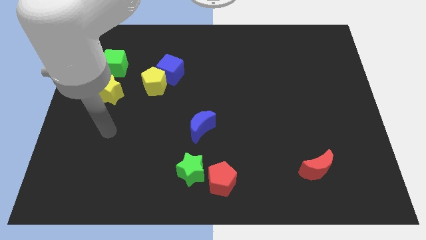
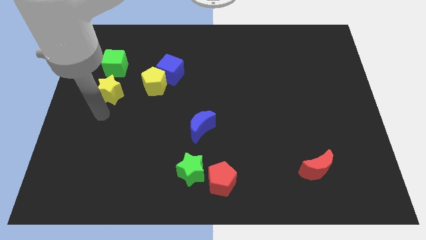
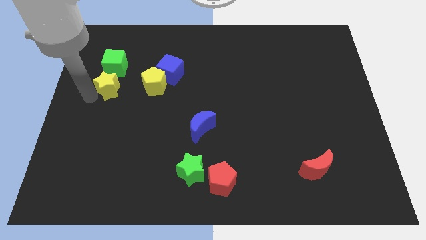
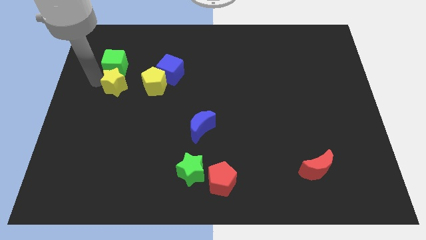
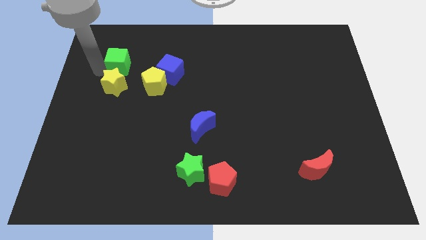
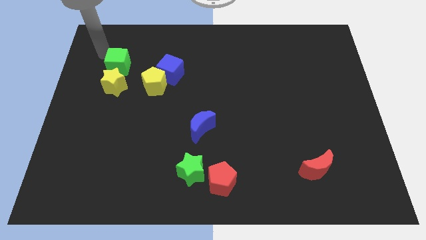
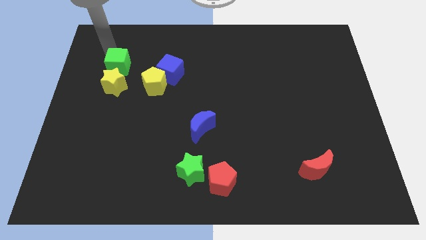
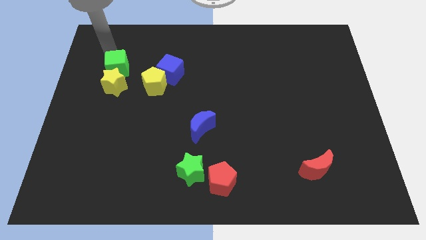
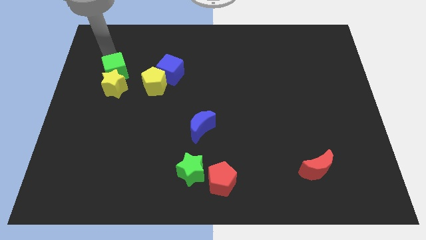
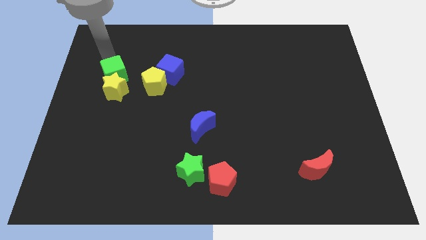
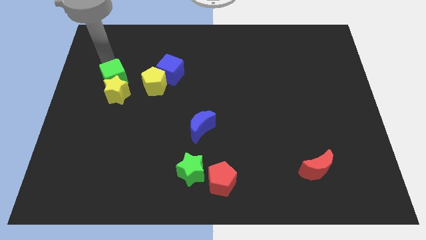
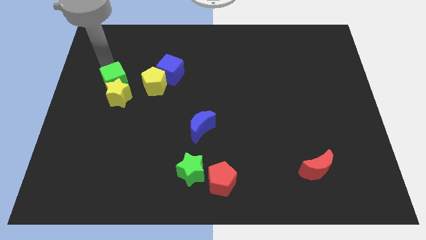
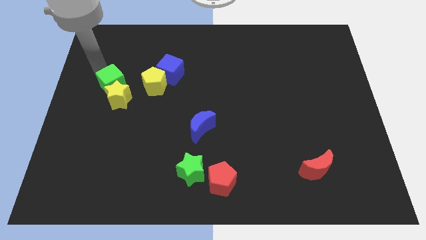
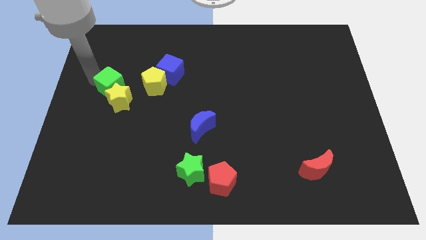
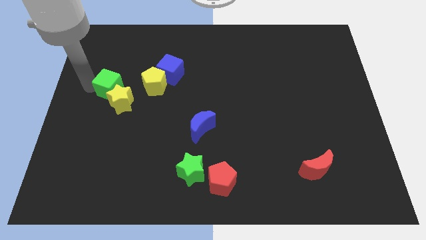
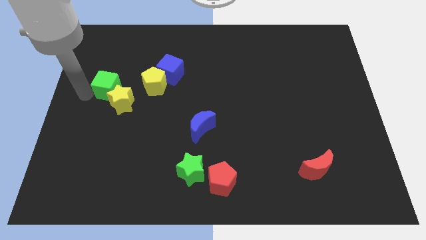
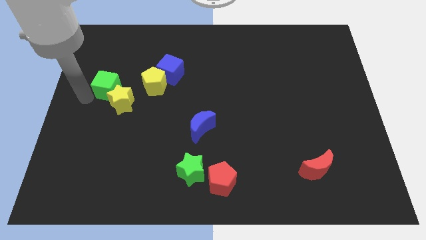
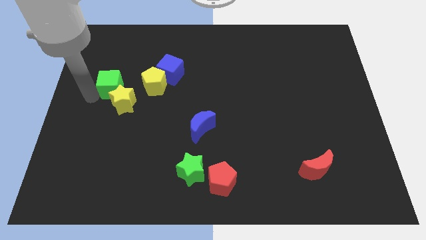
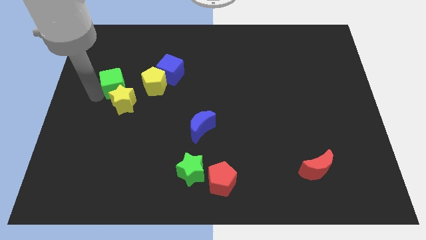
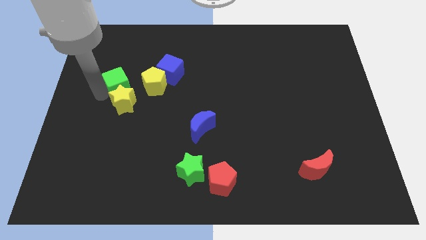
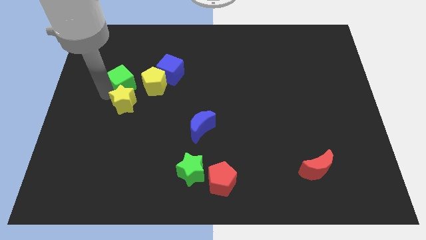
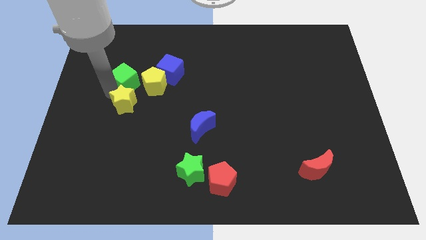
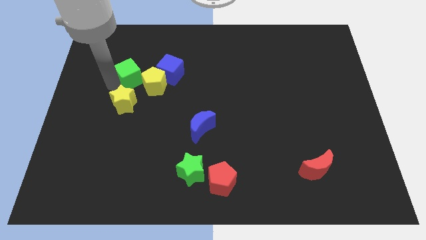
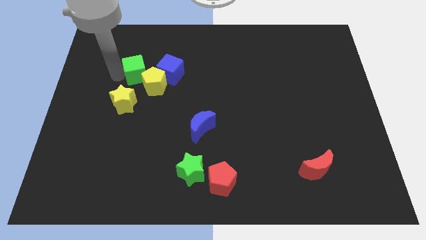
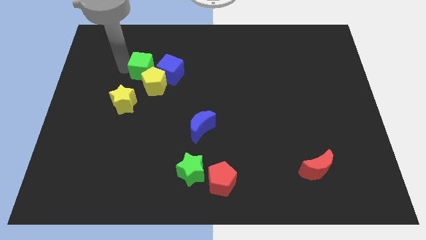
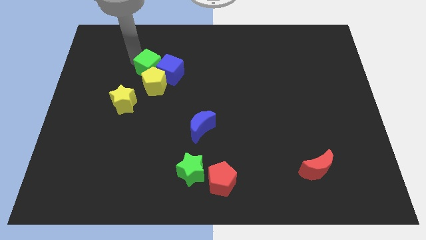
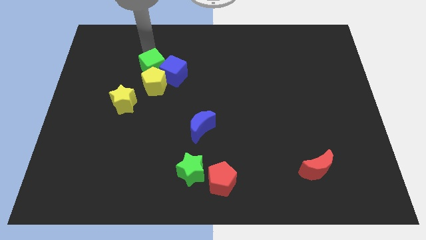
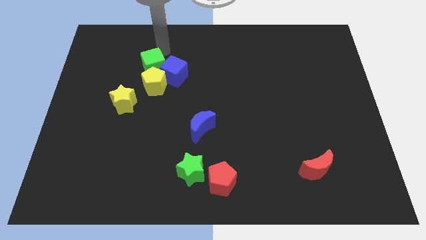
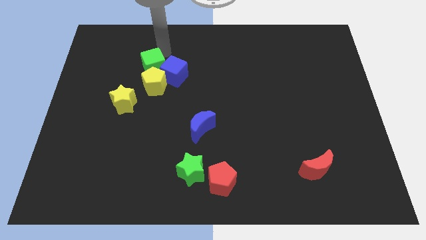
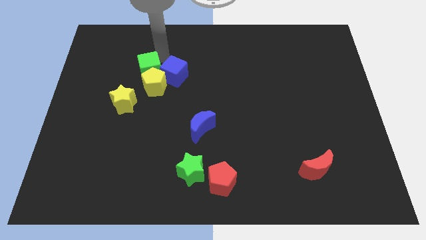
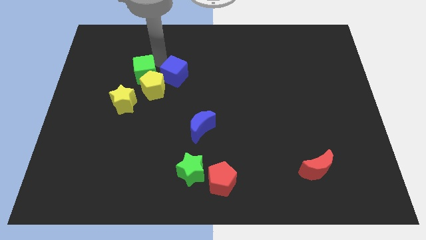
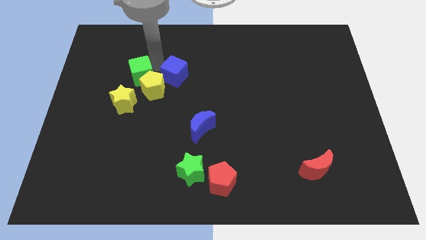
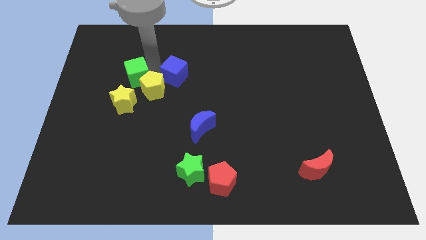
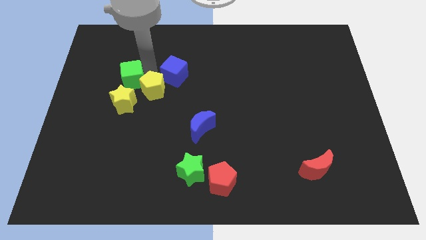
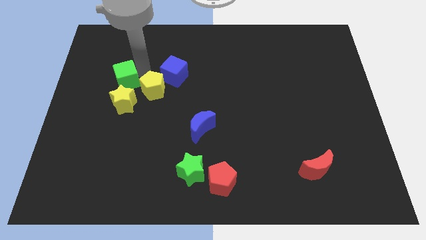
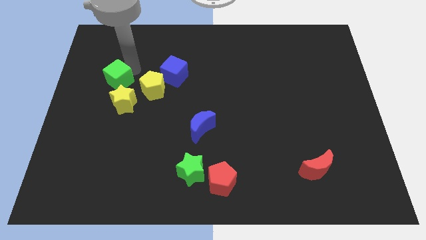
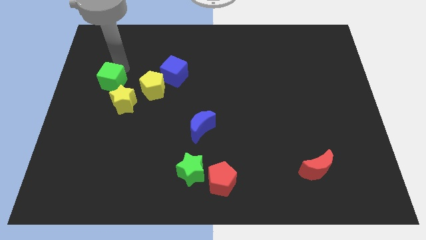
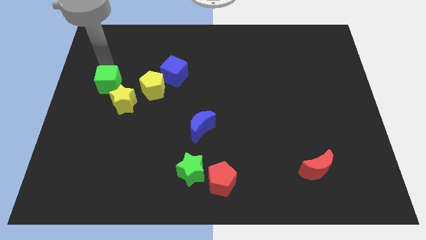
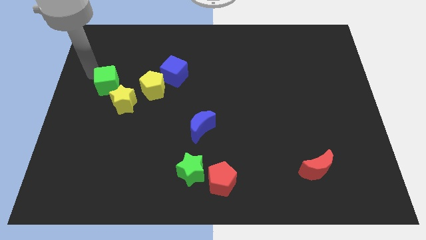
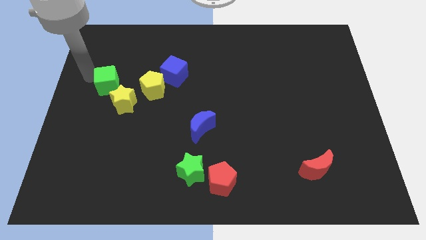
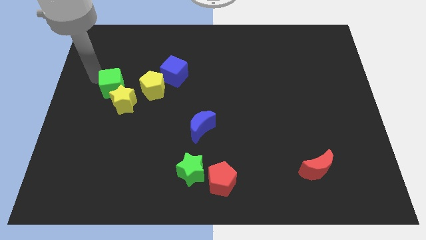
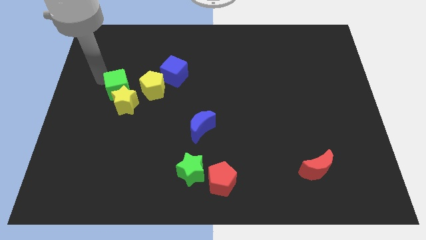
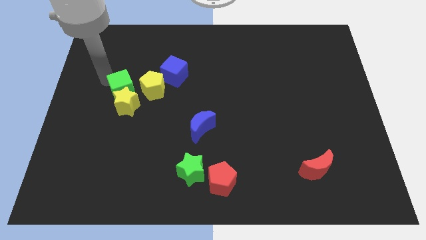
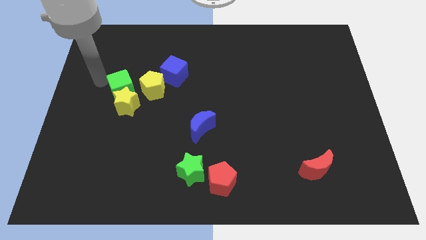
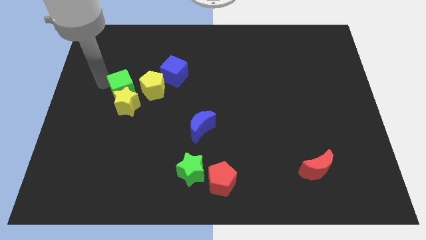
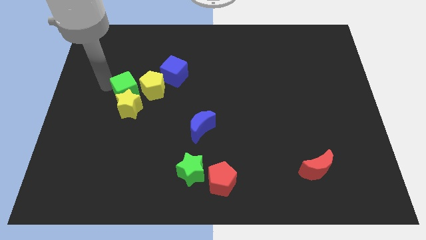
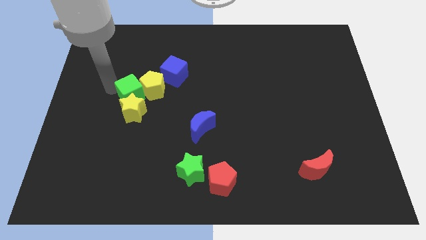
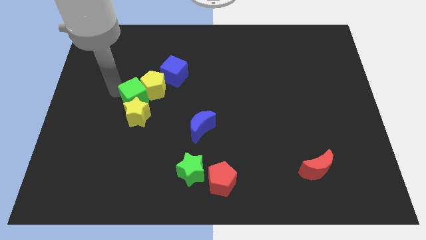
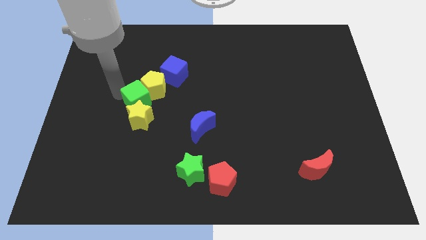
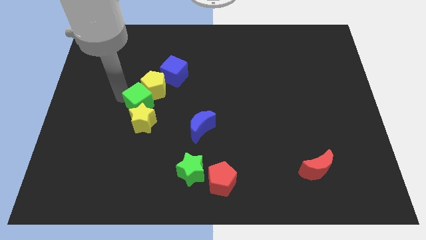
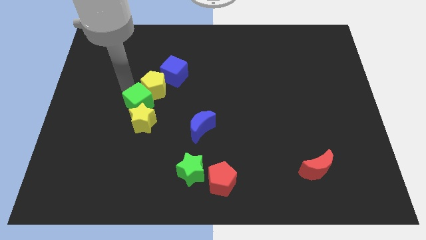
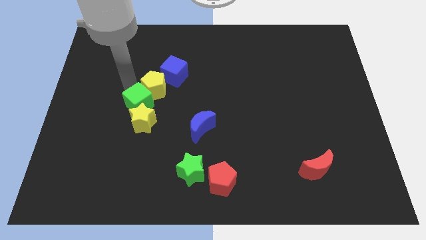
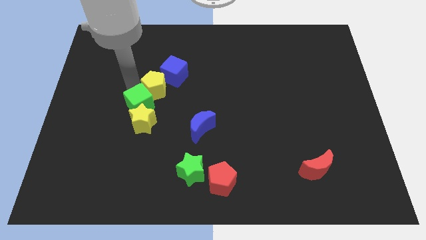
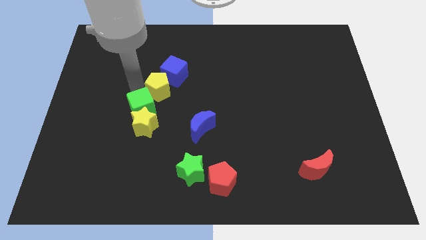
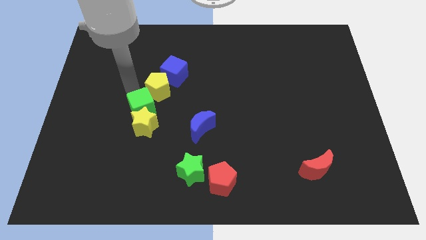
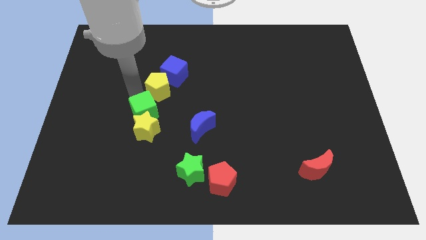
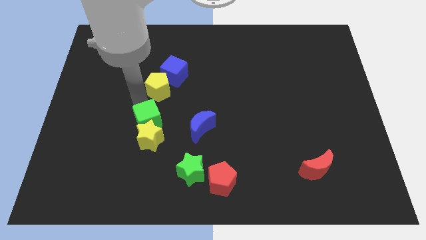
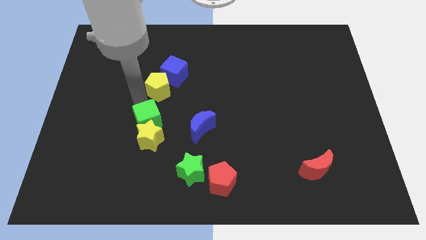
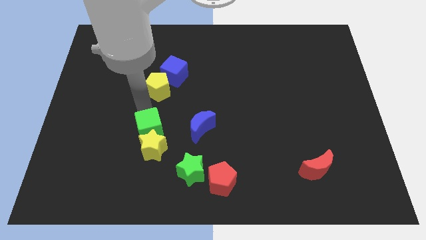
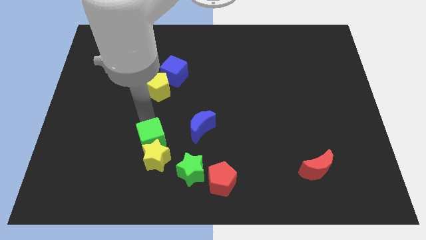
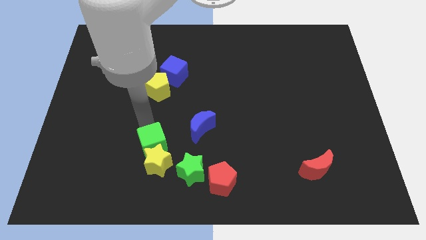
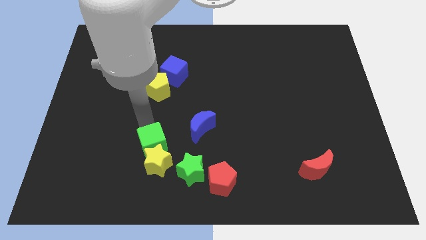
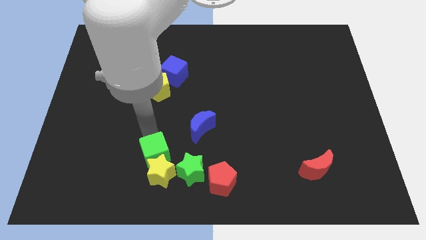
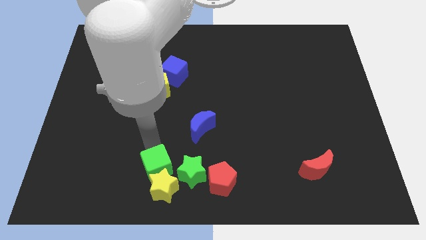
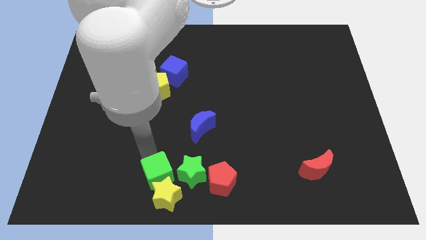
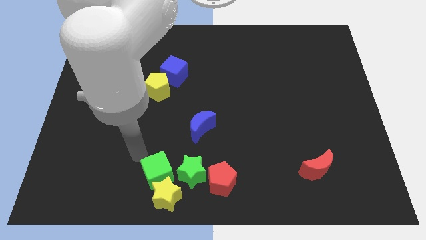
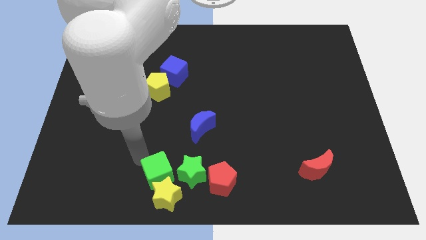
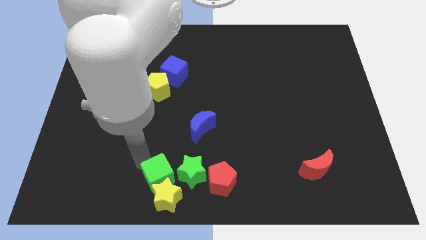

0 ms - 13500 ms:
move the green cube to the bottom
